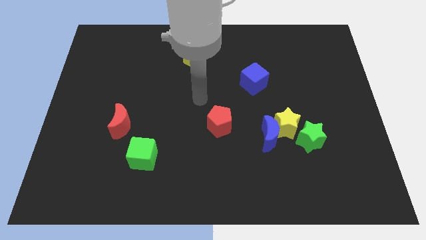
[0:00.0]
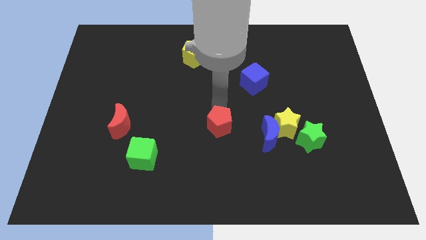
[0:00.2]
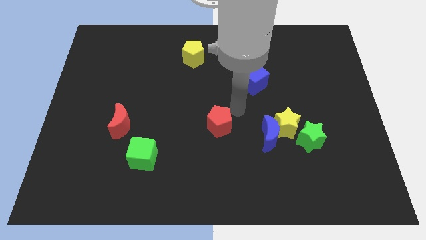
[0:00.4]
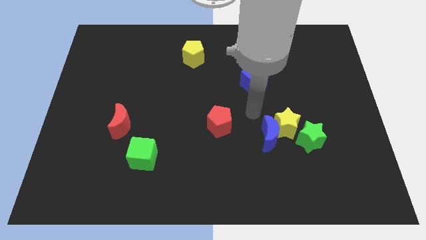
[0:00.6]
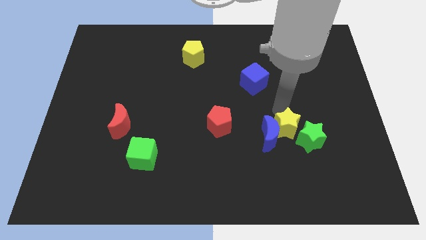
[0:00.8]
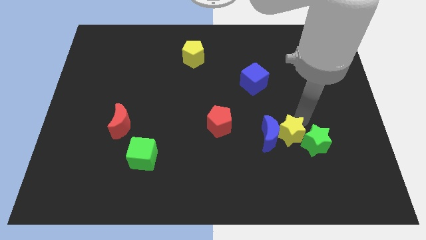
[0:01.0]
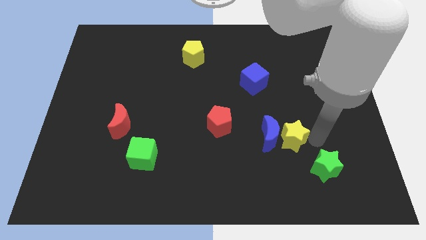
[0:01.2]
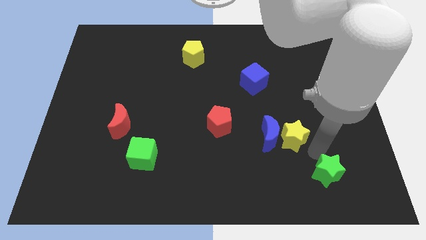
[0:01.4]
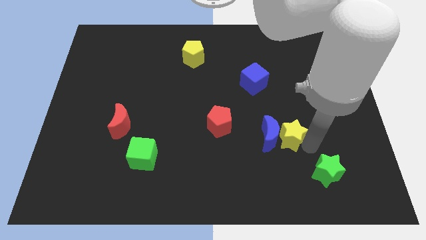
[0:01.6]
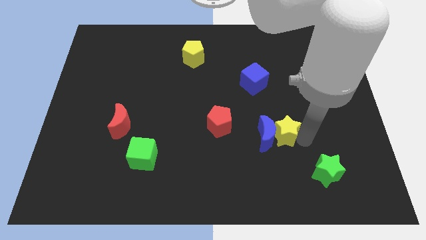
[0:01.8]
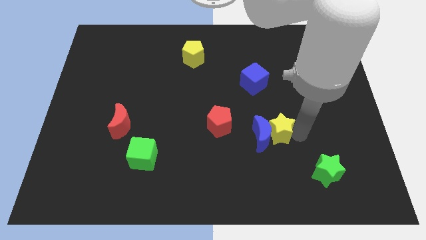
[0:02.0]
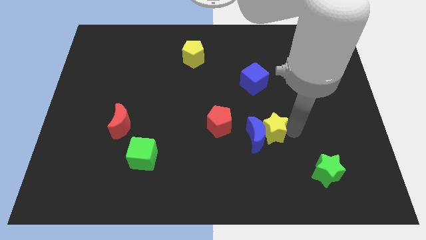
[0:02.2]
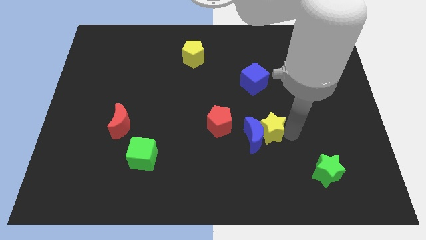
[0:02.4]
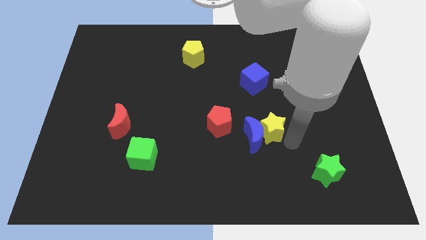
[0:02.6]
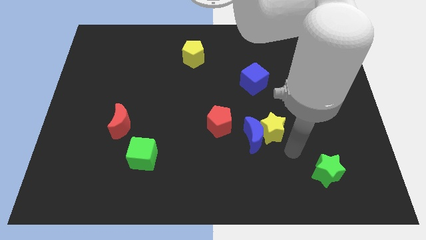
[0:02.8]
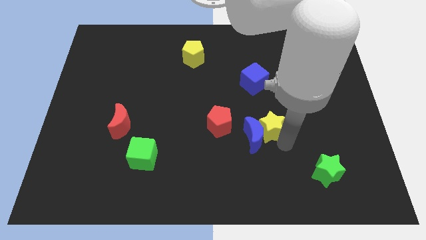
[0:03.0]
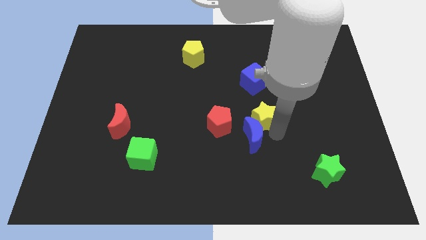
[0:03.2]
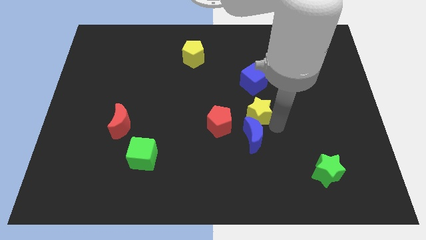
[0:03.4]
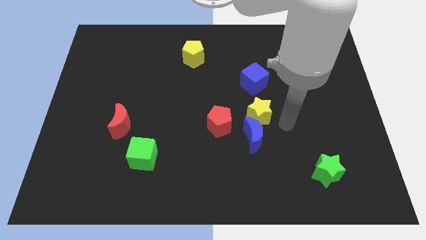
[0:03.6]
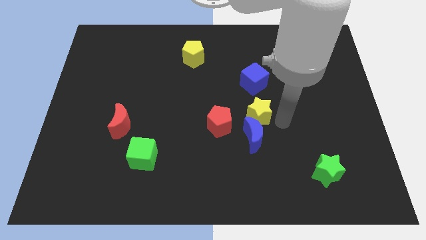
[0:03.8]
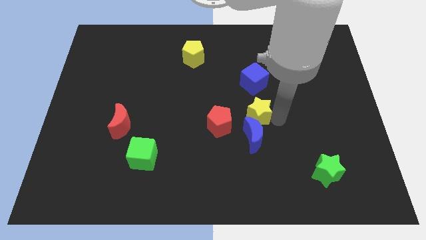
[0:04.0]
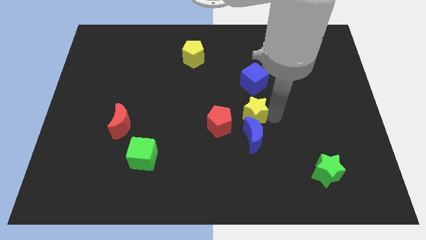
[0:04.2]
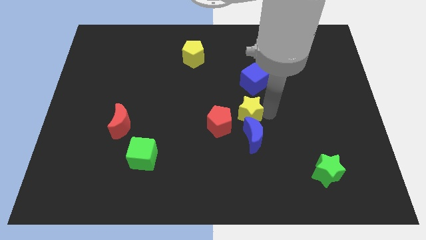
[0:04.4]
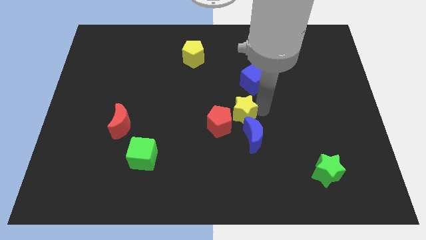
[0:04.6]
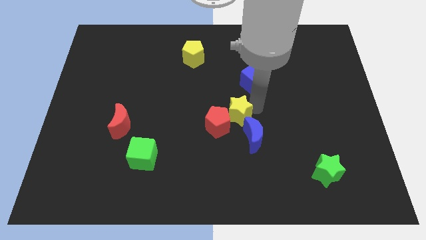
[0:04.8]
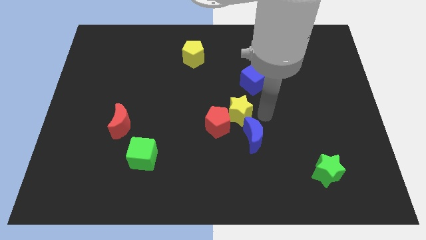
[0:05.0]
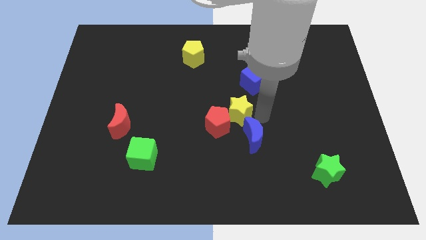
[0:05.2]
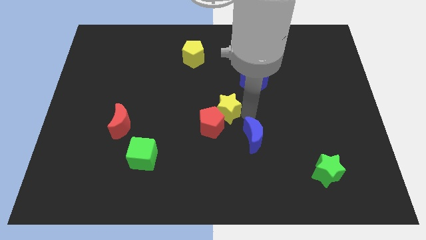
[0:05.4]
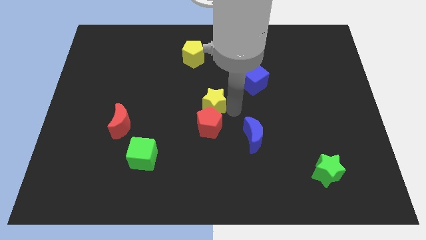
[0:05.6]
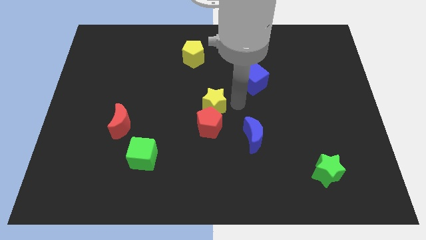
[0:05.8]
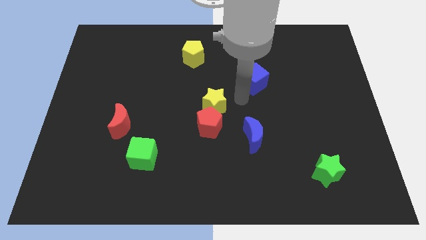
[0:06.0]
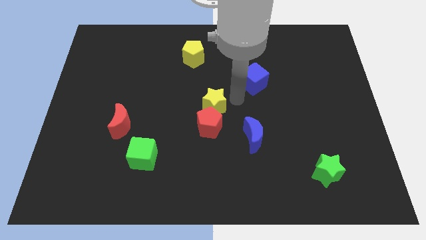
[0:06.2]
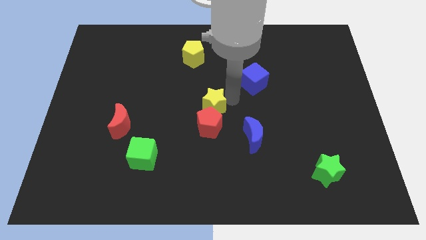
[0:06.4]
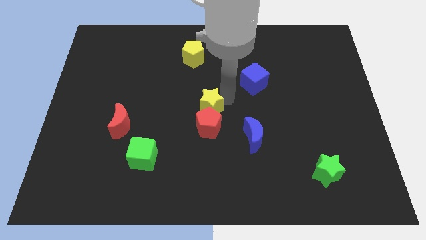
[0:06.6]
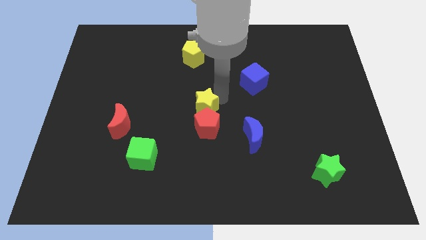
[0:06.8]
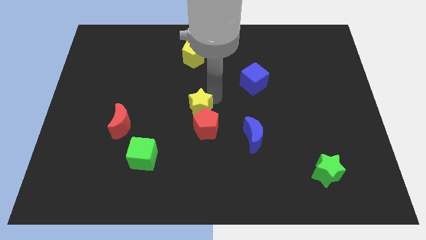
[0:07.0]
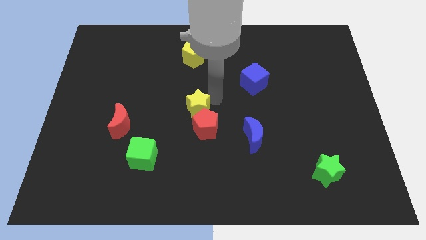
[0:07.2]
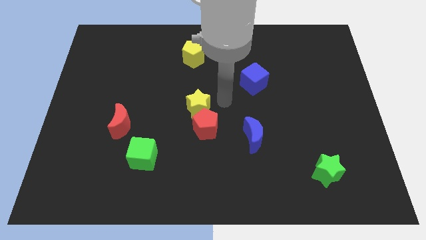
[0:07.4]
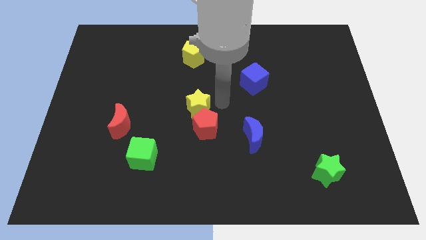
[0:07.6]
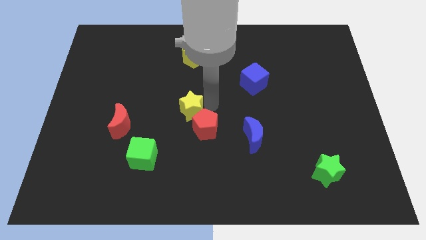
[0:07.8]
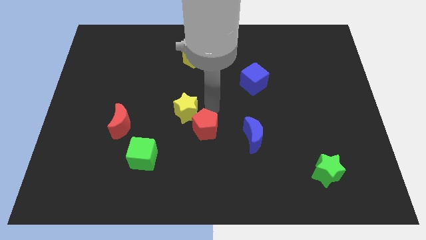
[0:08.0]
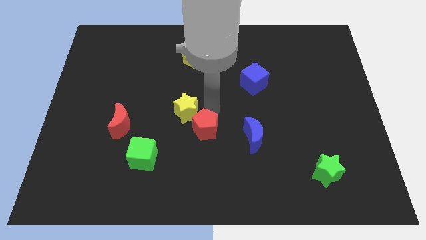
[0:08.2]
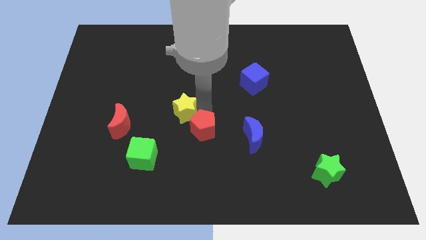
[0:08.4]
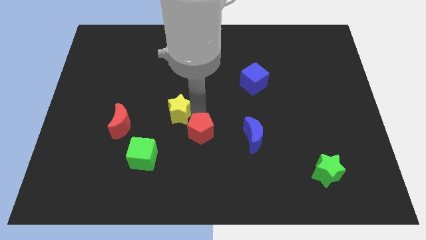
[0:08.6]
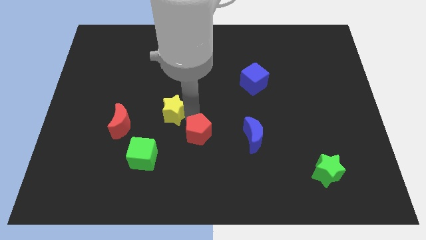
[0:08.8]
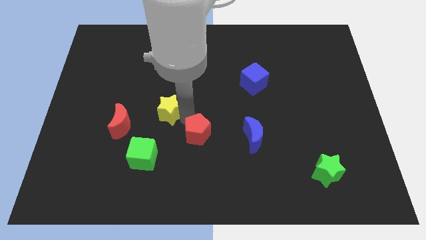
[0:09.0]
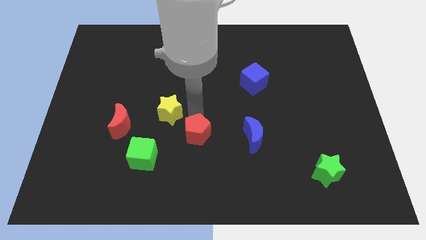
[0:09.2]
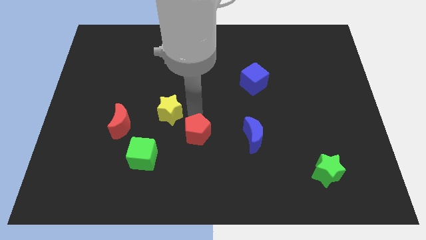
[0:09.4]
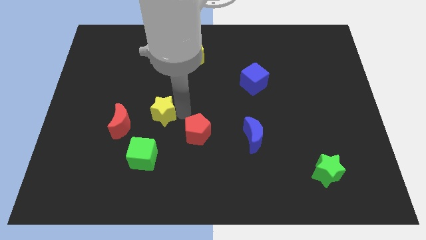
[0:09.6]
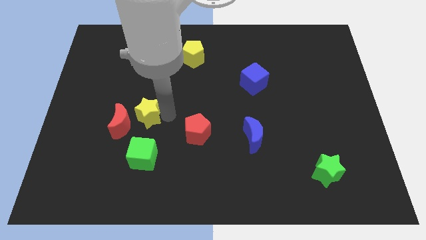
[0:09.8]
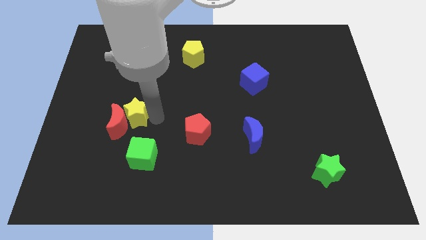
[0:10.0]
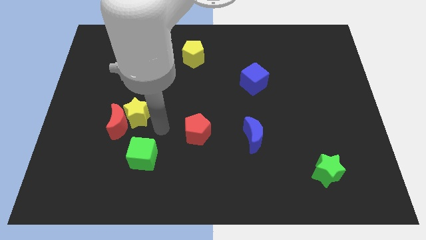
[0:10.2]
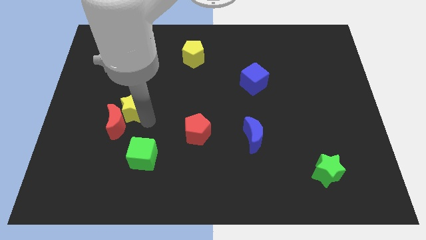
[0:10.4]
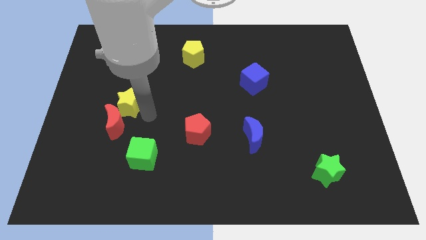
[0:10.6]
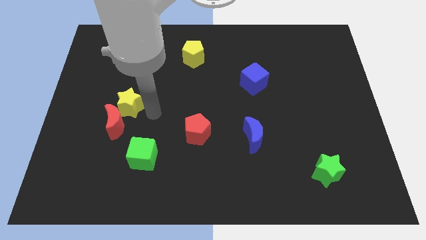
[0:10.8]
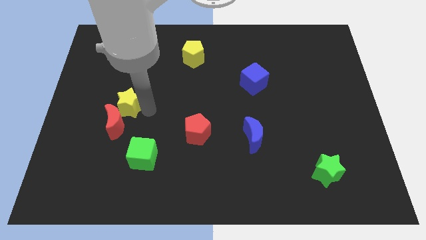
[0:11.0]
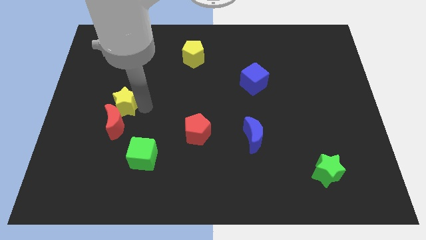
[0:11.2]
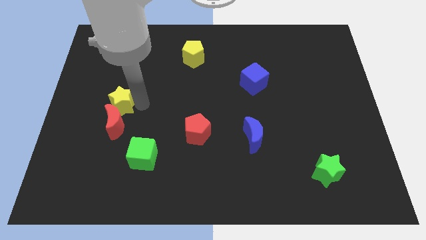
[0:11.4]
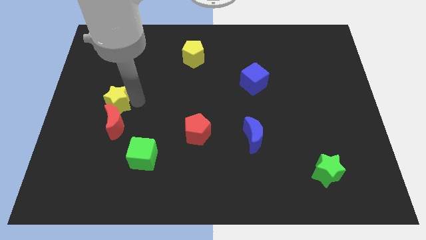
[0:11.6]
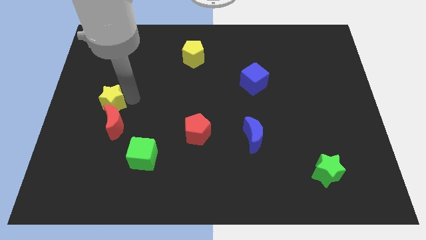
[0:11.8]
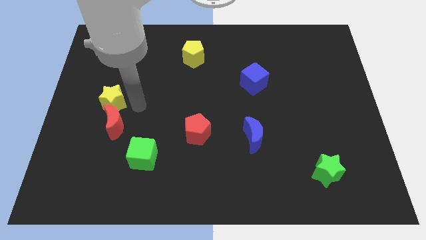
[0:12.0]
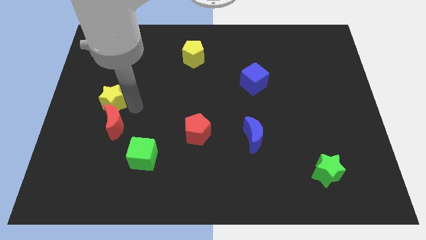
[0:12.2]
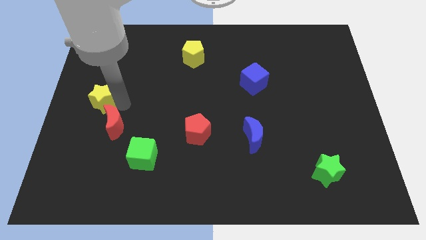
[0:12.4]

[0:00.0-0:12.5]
move the yellow star to the center left
